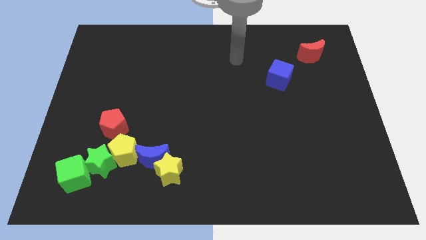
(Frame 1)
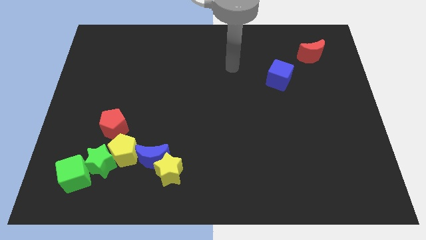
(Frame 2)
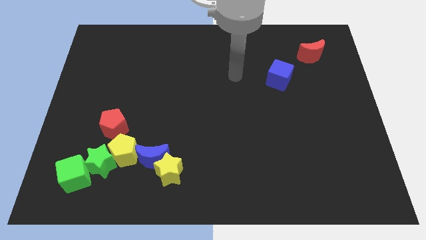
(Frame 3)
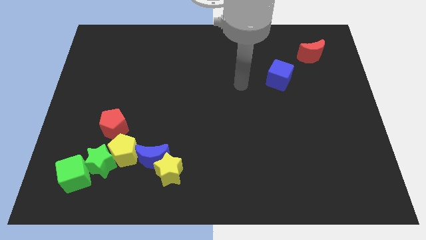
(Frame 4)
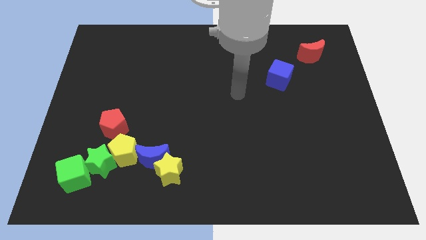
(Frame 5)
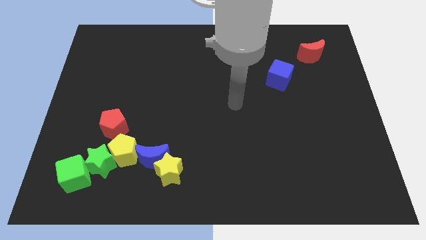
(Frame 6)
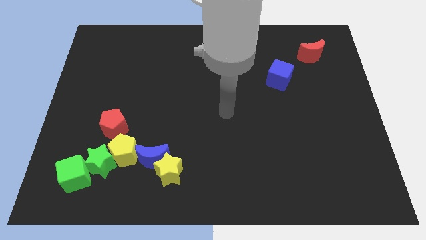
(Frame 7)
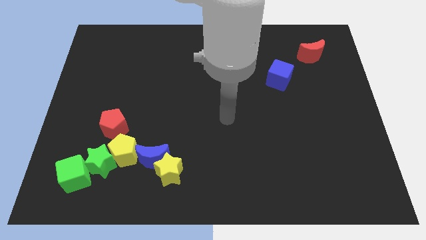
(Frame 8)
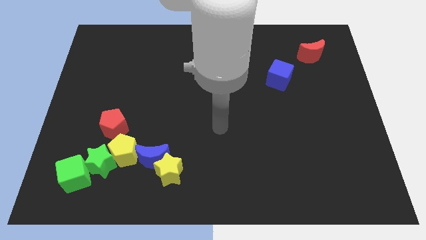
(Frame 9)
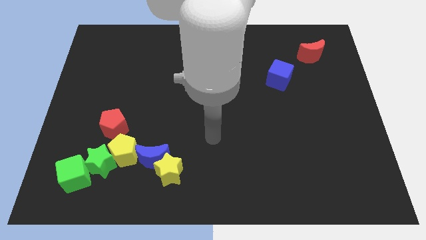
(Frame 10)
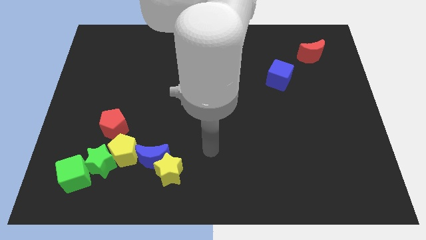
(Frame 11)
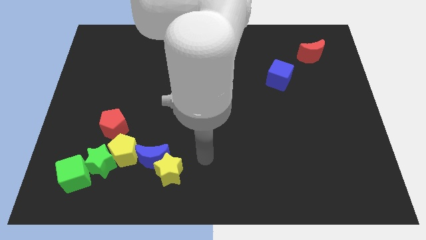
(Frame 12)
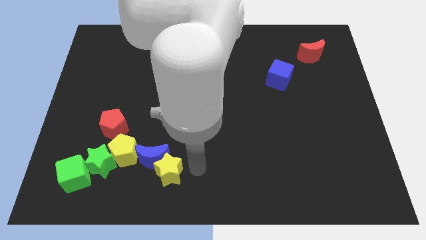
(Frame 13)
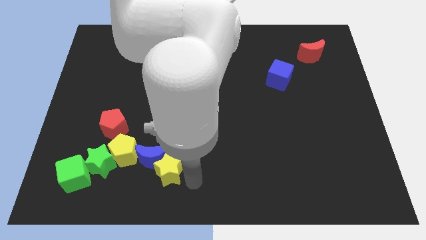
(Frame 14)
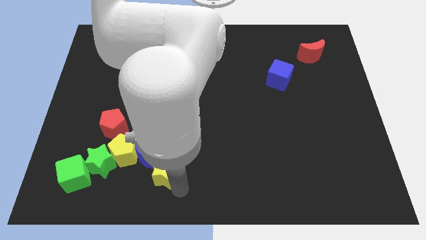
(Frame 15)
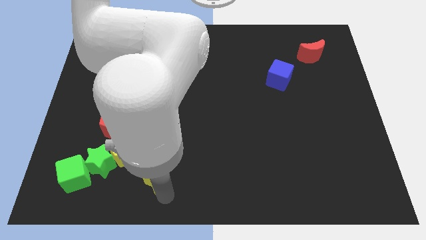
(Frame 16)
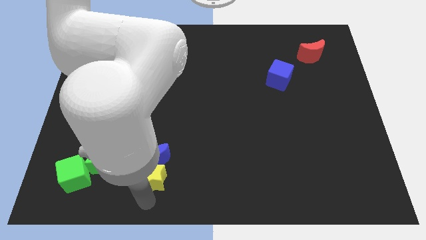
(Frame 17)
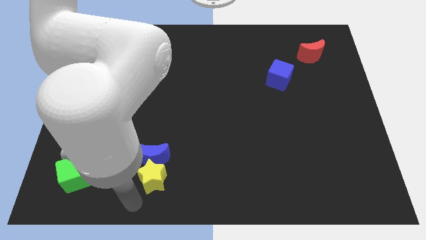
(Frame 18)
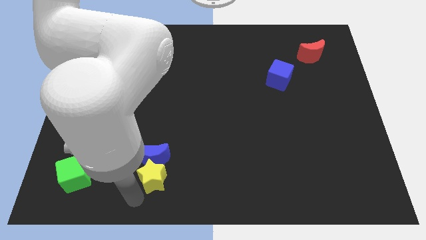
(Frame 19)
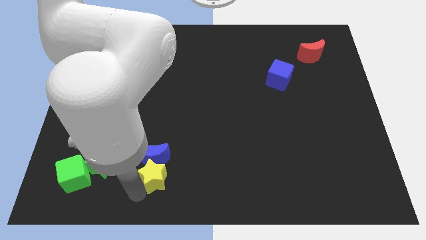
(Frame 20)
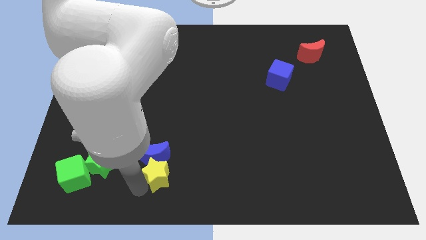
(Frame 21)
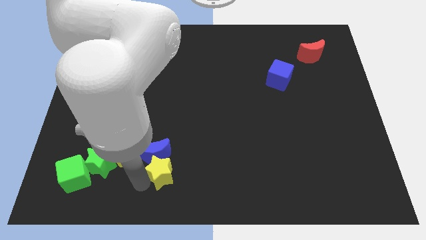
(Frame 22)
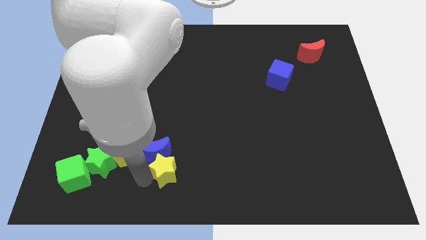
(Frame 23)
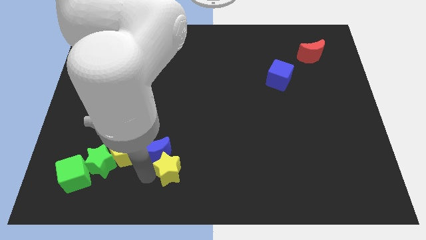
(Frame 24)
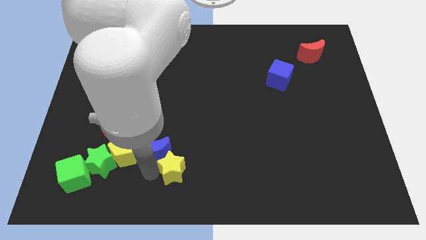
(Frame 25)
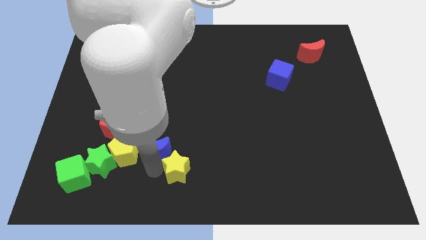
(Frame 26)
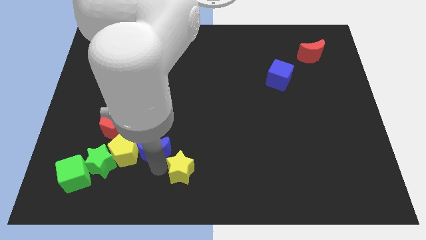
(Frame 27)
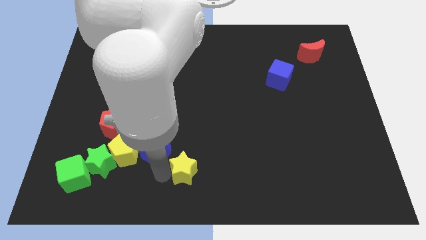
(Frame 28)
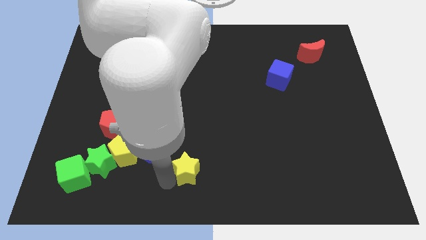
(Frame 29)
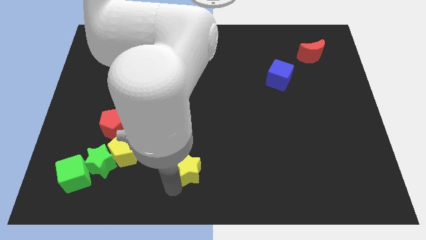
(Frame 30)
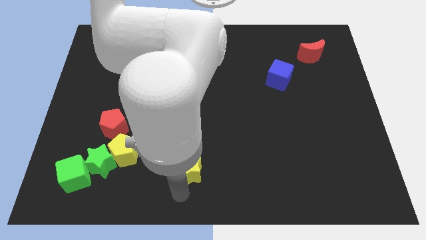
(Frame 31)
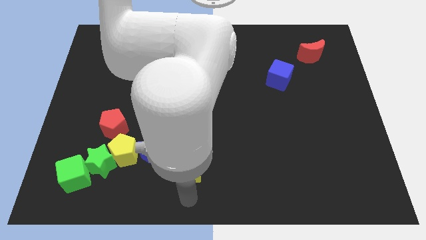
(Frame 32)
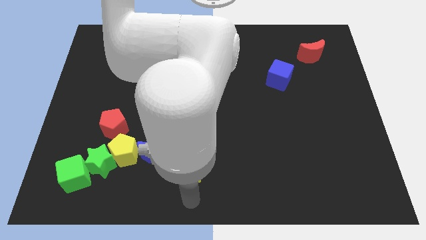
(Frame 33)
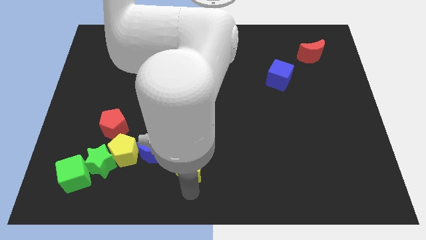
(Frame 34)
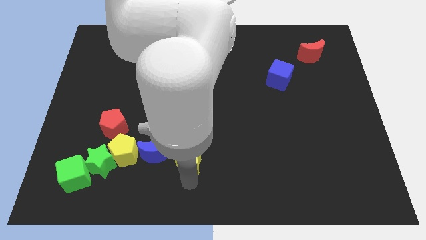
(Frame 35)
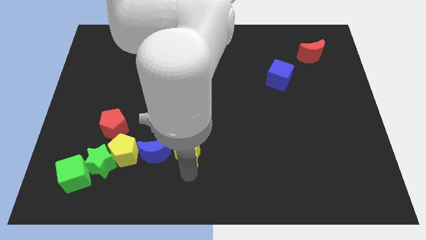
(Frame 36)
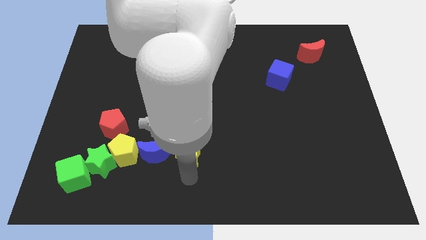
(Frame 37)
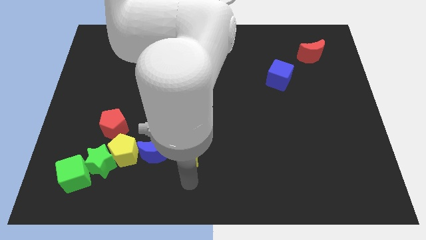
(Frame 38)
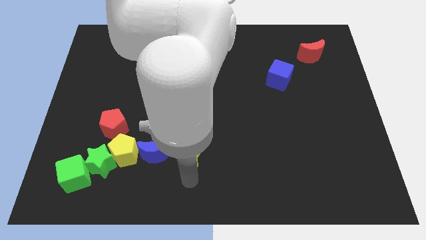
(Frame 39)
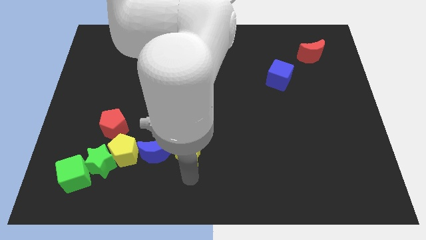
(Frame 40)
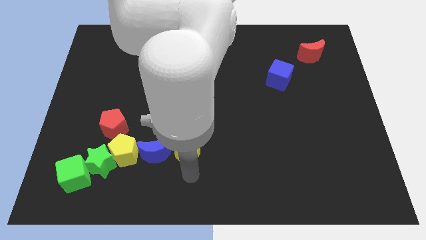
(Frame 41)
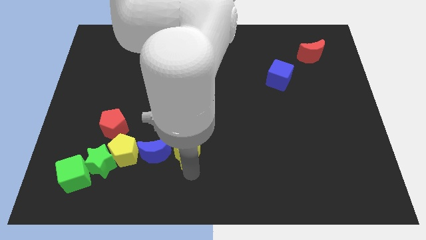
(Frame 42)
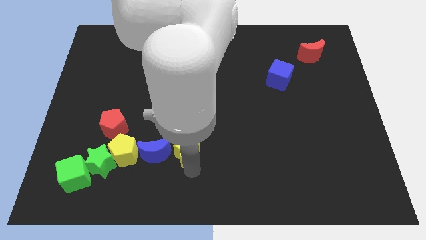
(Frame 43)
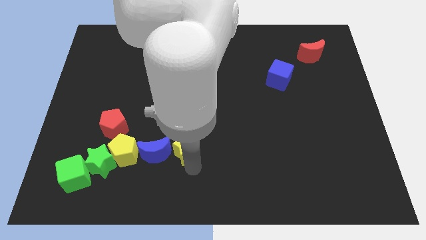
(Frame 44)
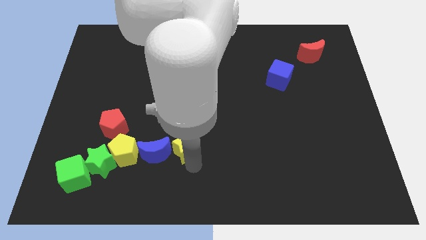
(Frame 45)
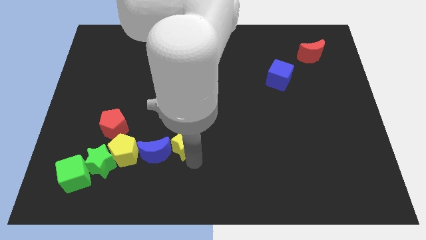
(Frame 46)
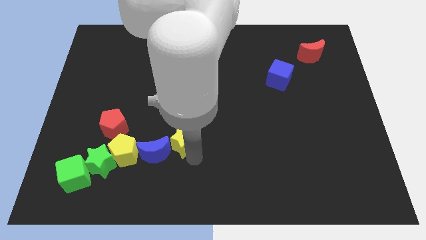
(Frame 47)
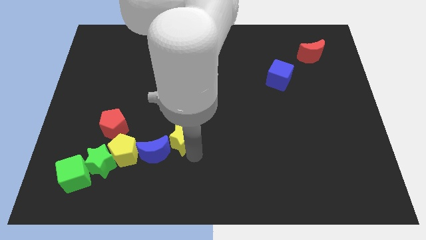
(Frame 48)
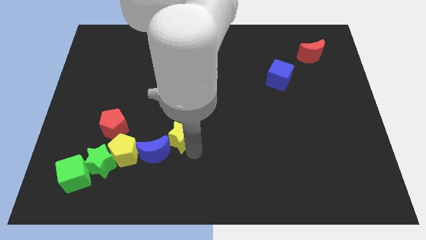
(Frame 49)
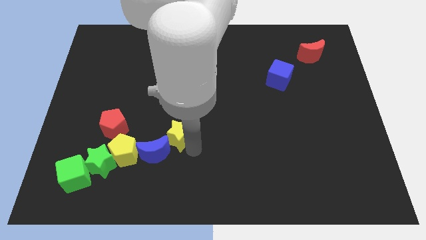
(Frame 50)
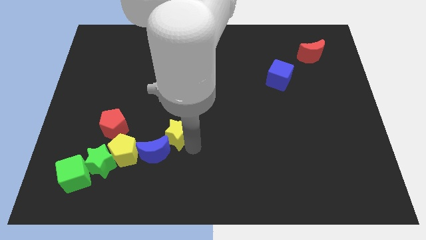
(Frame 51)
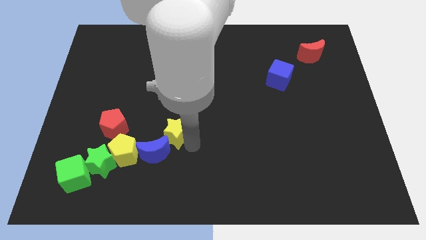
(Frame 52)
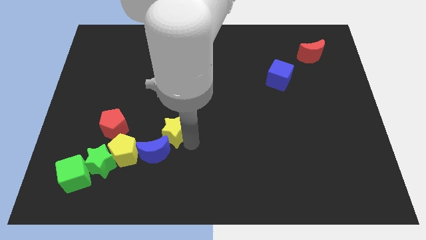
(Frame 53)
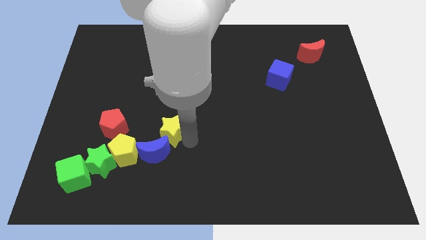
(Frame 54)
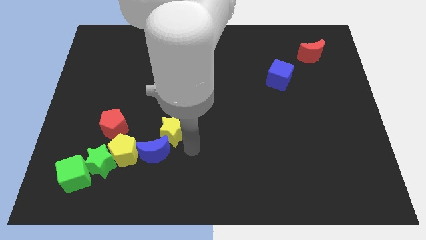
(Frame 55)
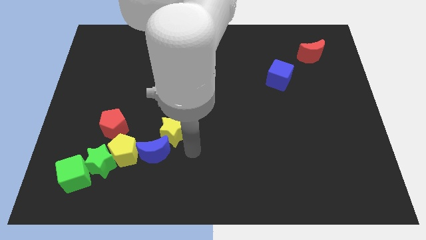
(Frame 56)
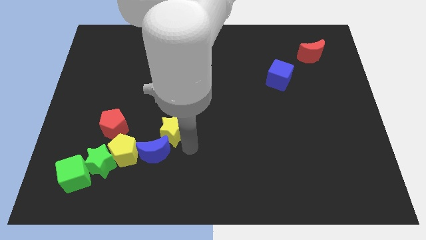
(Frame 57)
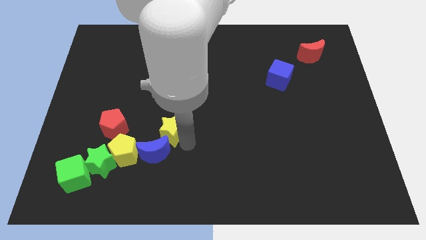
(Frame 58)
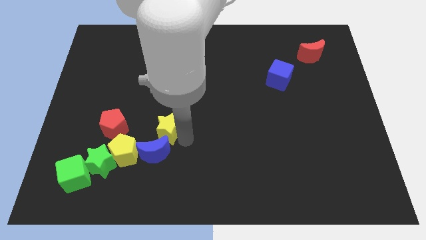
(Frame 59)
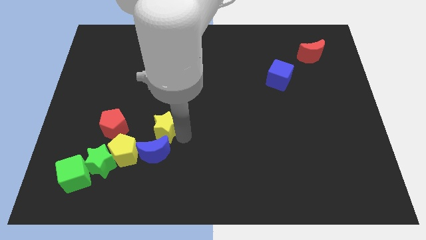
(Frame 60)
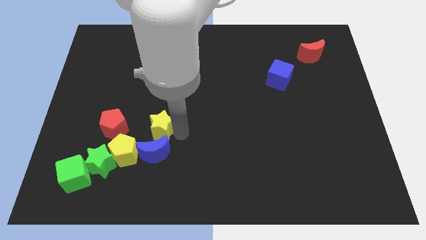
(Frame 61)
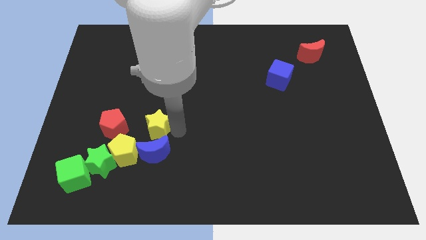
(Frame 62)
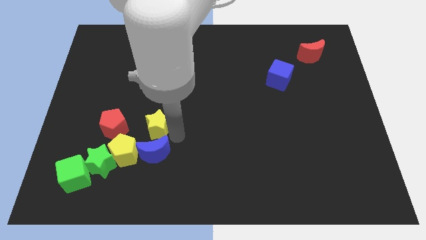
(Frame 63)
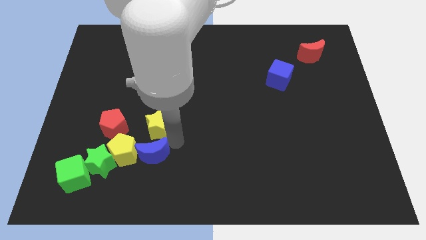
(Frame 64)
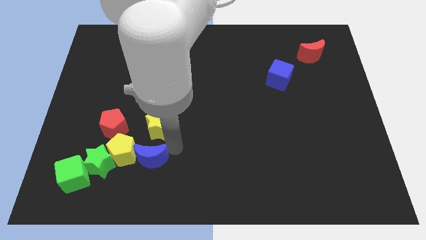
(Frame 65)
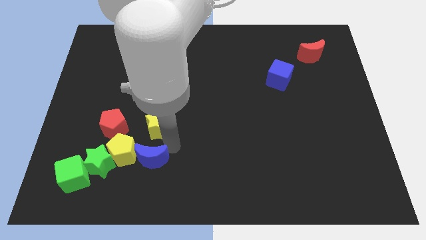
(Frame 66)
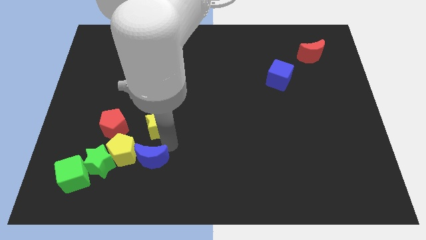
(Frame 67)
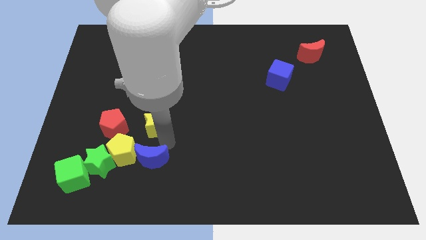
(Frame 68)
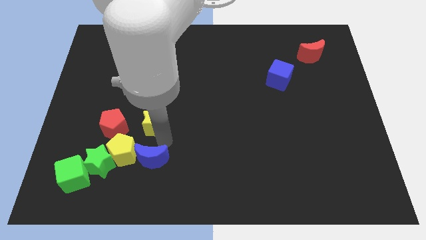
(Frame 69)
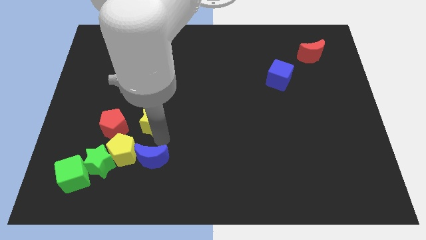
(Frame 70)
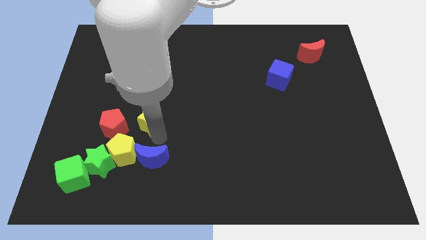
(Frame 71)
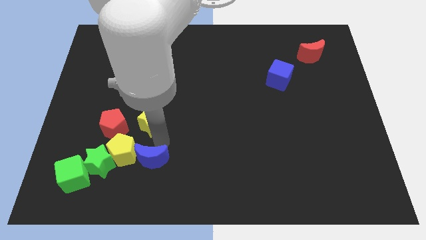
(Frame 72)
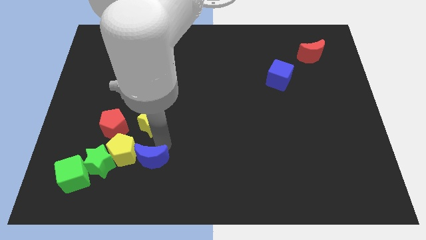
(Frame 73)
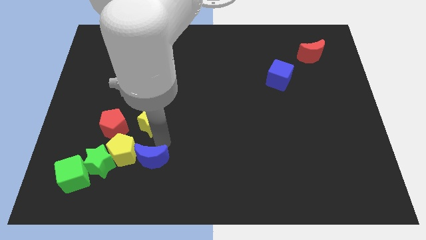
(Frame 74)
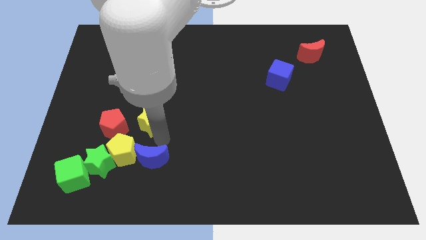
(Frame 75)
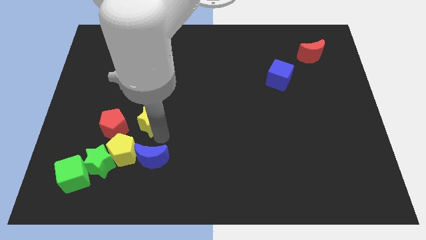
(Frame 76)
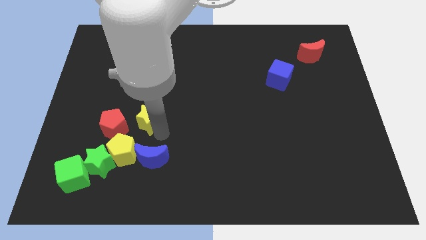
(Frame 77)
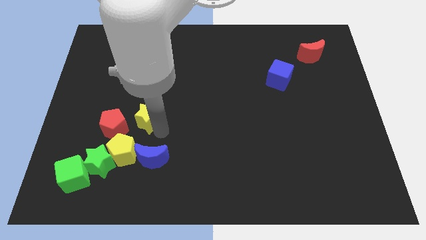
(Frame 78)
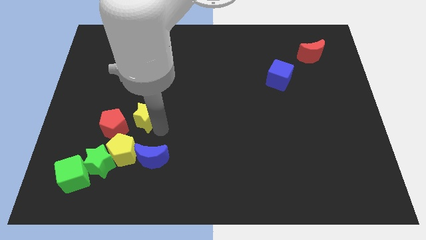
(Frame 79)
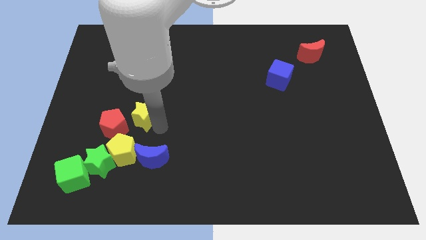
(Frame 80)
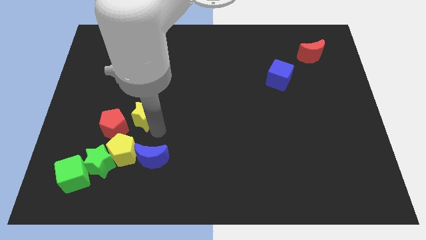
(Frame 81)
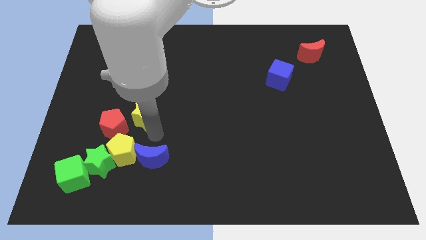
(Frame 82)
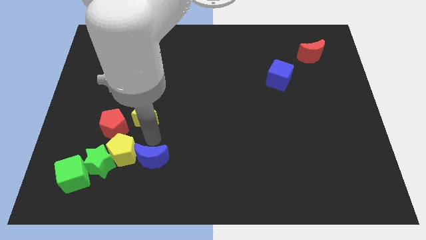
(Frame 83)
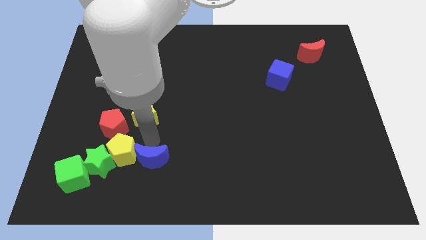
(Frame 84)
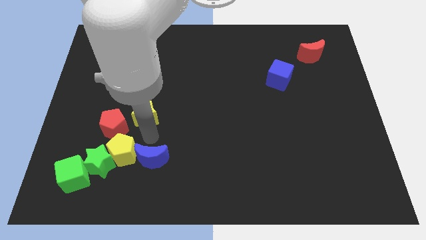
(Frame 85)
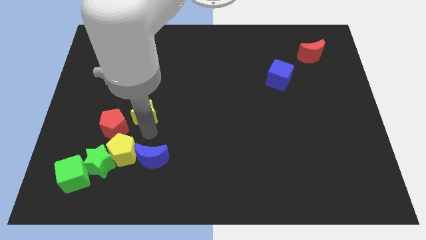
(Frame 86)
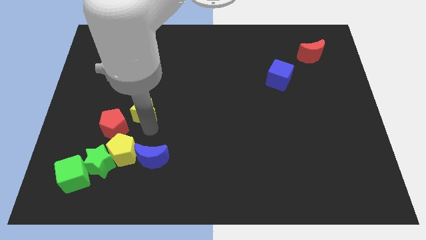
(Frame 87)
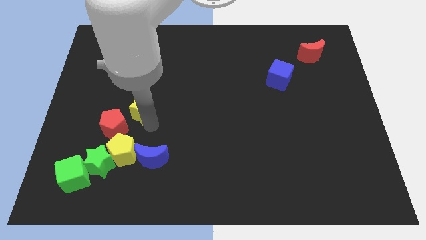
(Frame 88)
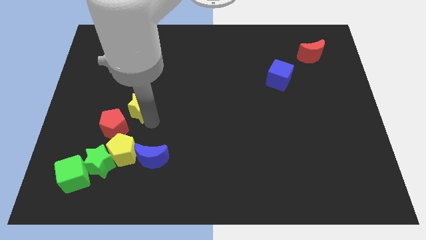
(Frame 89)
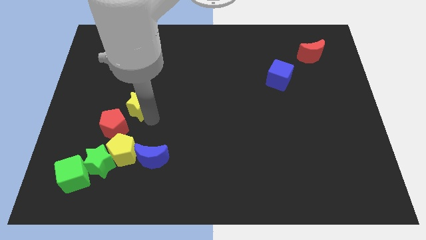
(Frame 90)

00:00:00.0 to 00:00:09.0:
slide the yellow star to the top of the red pentagon
